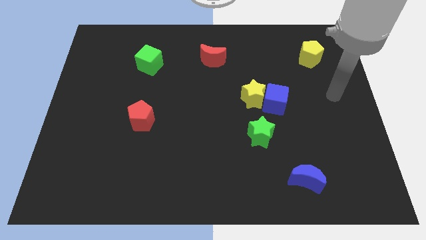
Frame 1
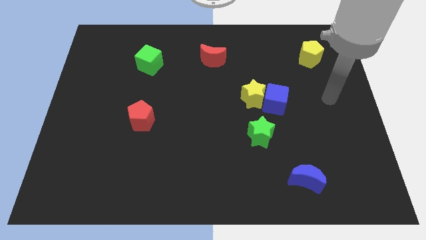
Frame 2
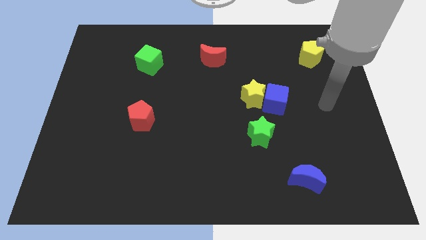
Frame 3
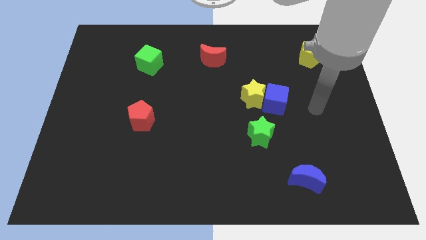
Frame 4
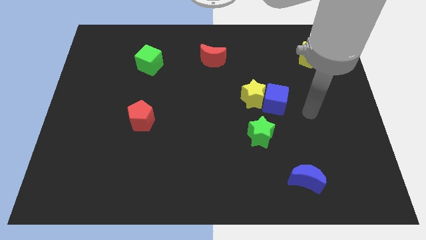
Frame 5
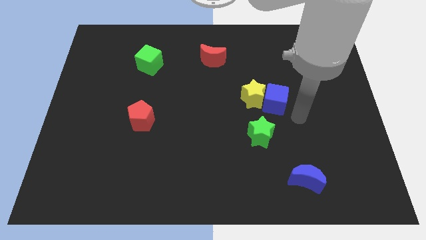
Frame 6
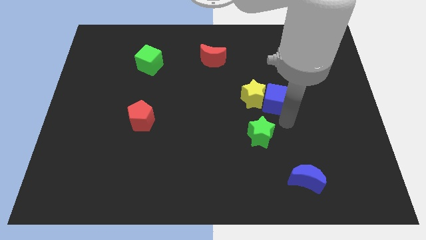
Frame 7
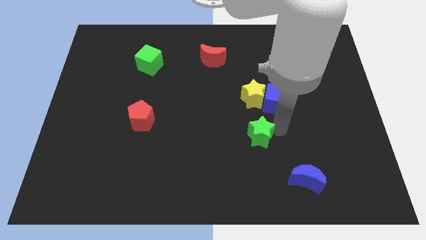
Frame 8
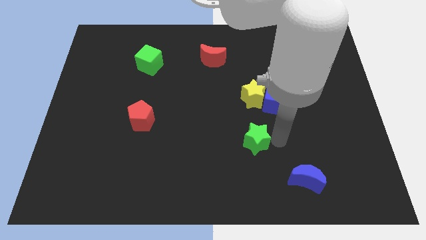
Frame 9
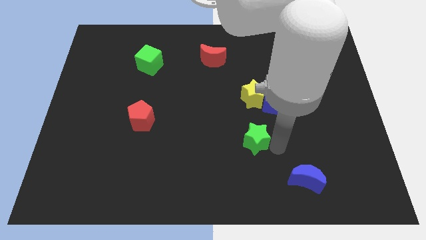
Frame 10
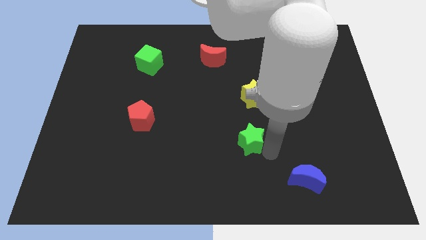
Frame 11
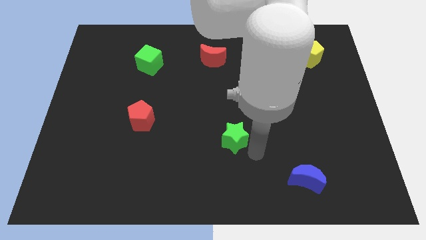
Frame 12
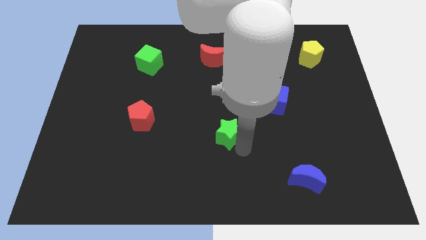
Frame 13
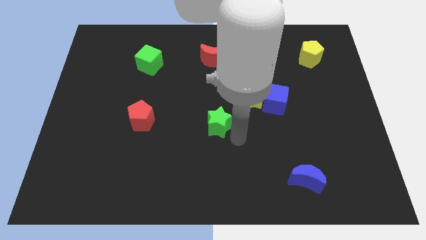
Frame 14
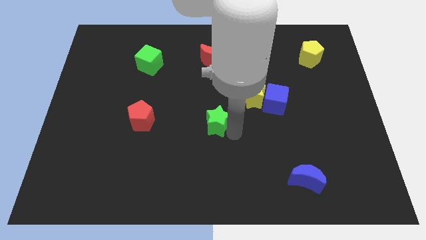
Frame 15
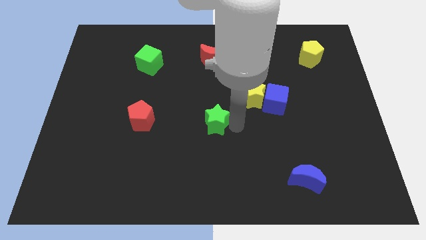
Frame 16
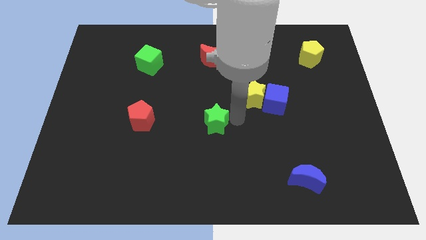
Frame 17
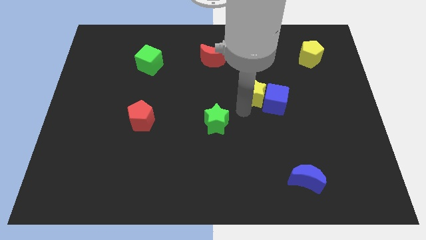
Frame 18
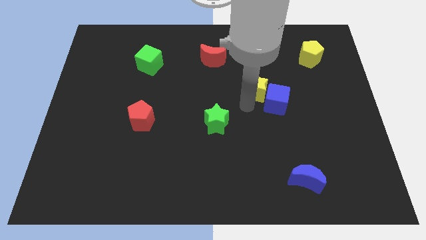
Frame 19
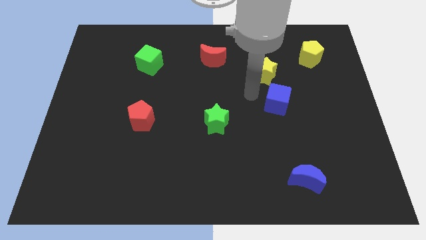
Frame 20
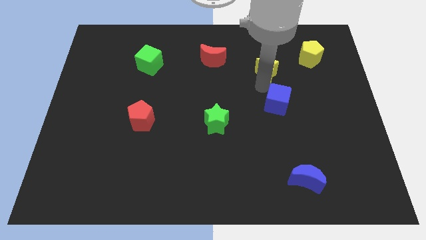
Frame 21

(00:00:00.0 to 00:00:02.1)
move the blue cube away from the yellow star

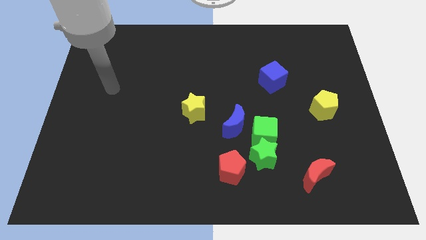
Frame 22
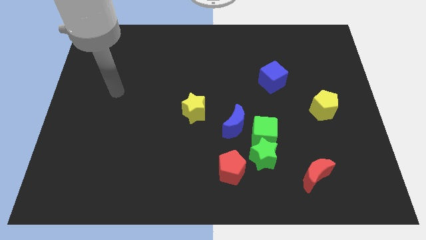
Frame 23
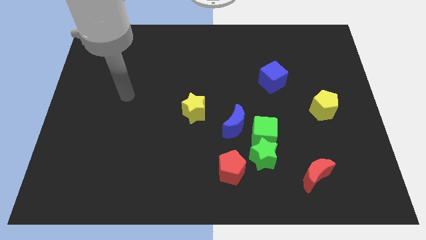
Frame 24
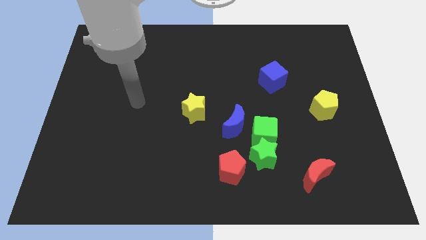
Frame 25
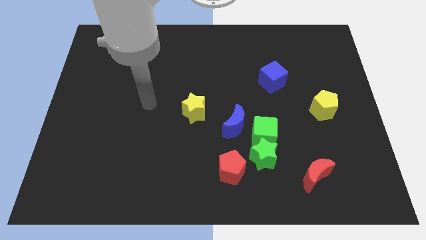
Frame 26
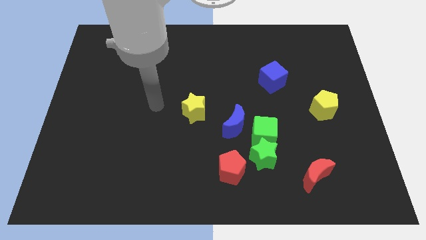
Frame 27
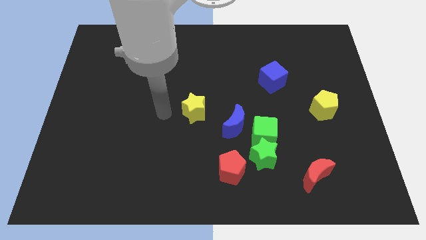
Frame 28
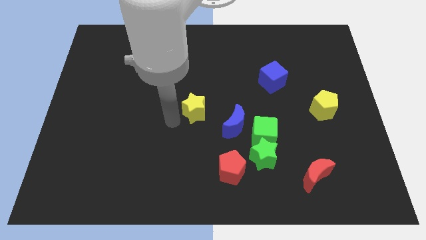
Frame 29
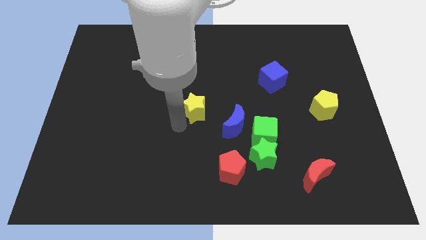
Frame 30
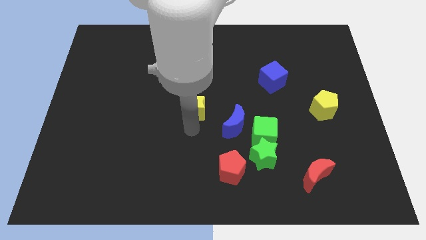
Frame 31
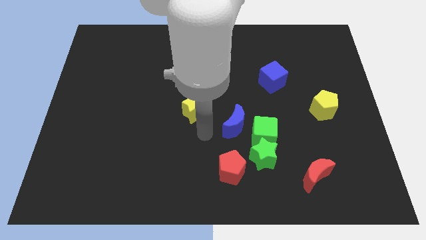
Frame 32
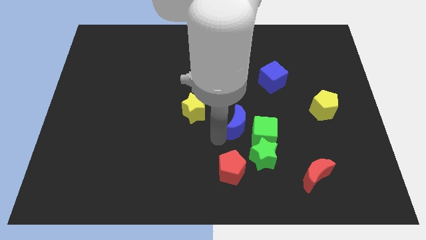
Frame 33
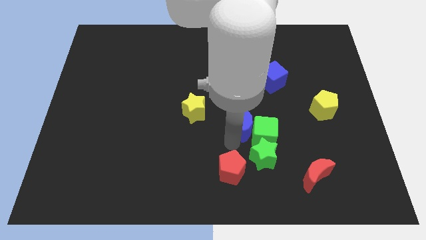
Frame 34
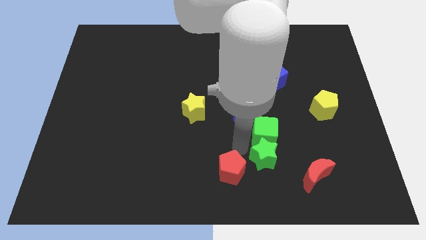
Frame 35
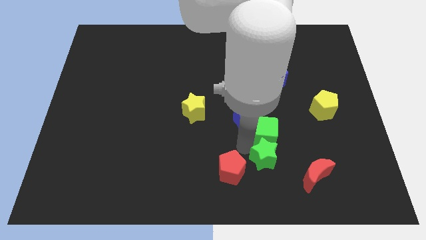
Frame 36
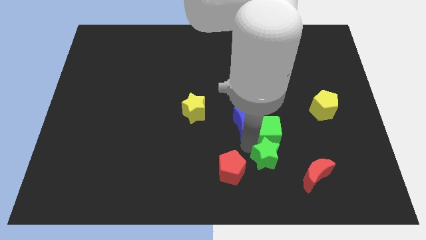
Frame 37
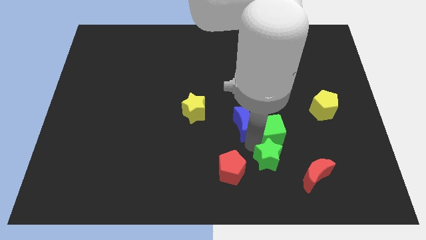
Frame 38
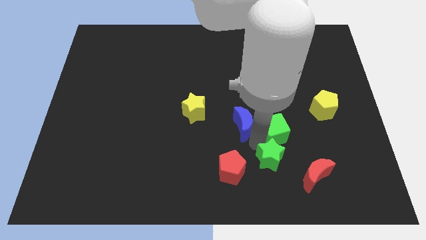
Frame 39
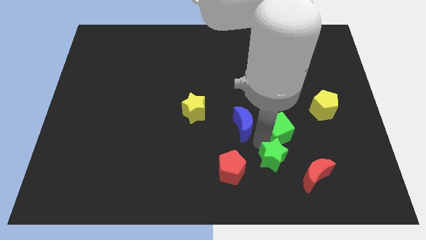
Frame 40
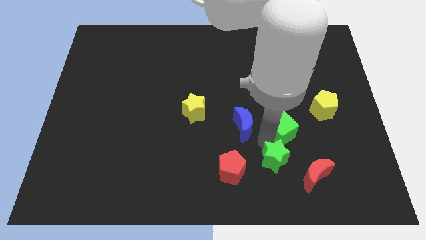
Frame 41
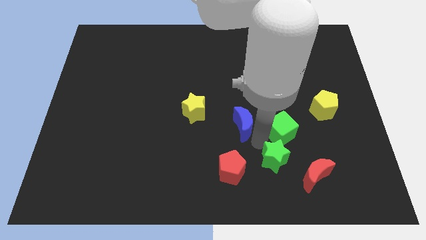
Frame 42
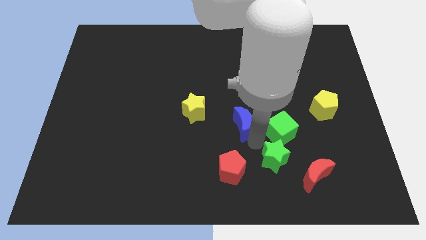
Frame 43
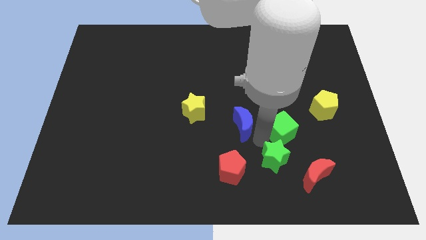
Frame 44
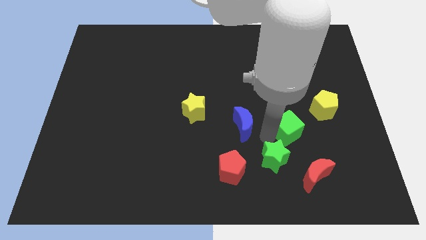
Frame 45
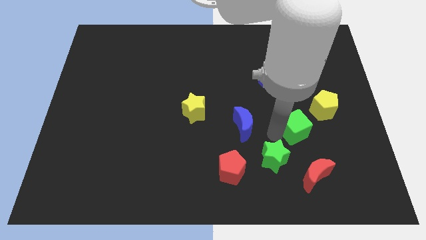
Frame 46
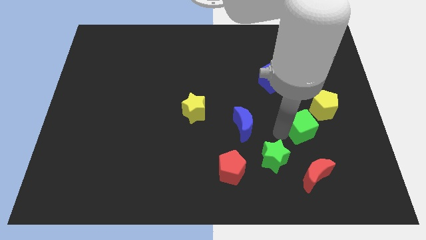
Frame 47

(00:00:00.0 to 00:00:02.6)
separate the green cube from the green star and blue moon

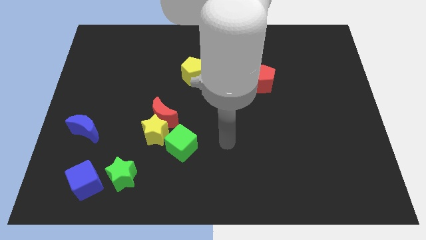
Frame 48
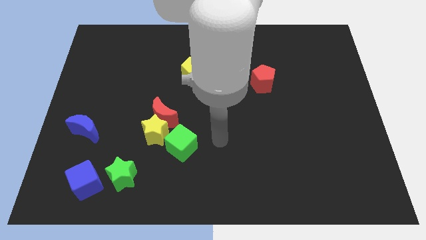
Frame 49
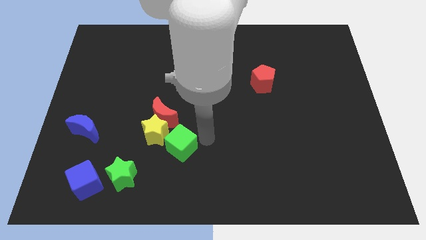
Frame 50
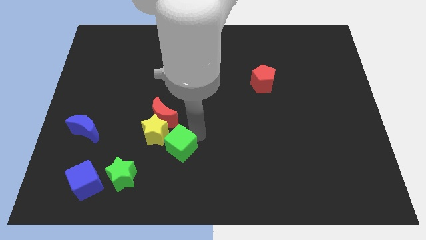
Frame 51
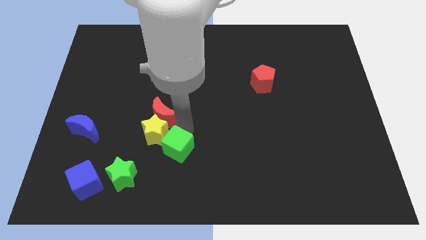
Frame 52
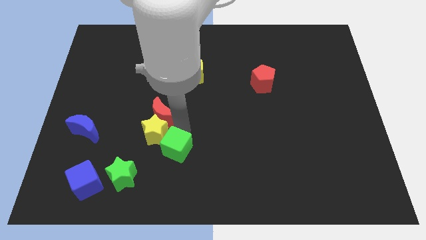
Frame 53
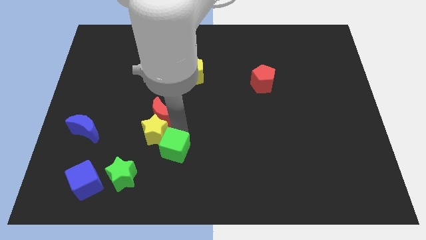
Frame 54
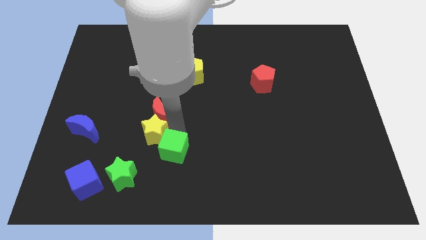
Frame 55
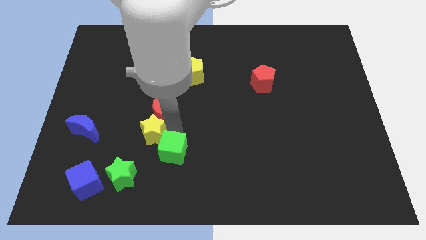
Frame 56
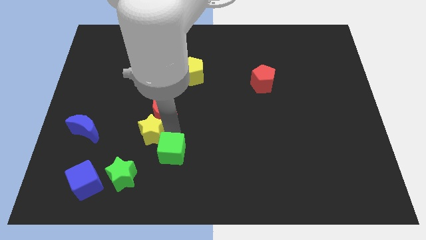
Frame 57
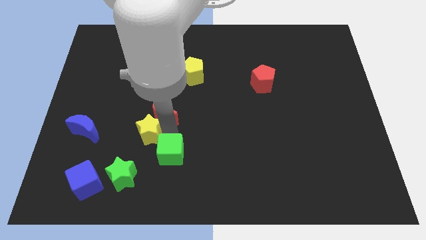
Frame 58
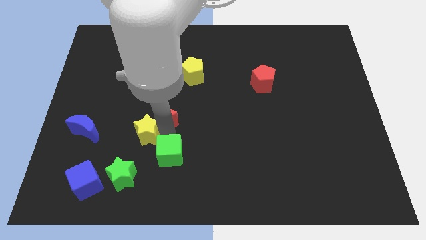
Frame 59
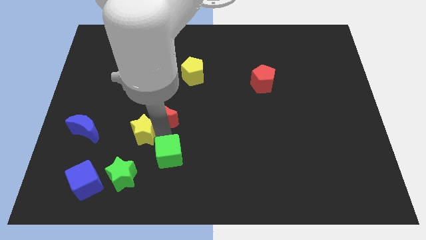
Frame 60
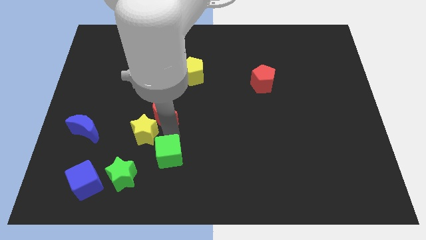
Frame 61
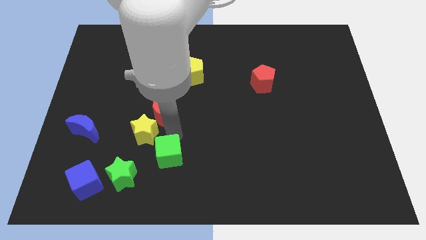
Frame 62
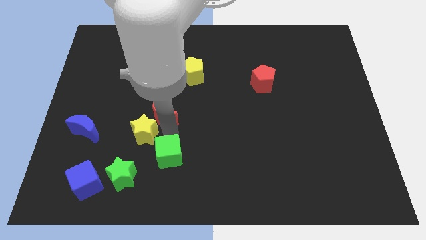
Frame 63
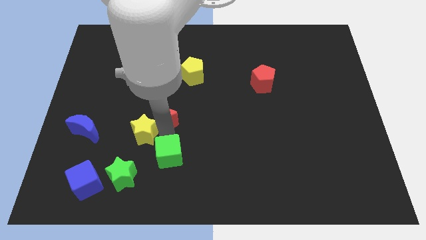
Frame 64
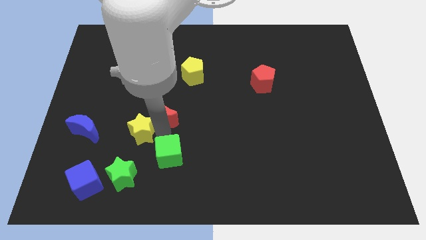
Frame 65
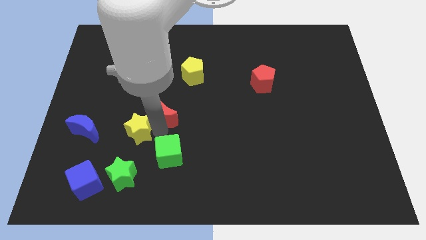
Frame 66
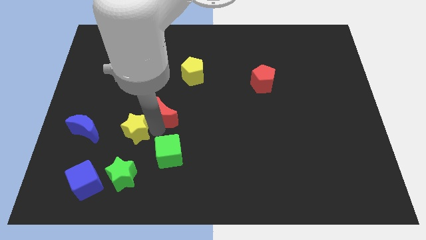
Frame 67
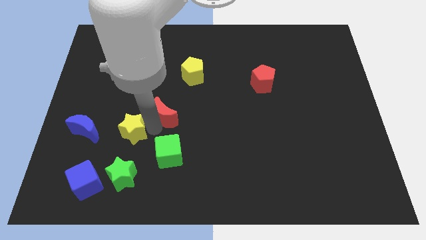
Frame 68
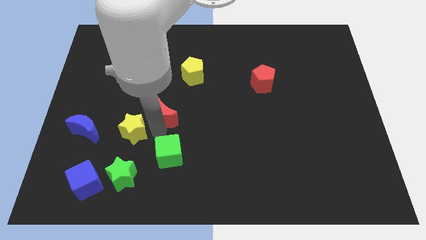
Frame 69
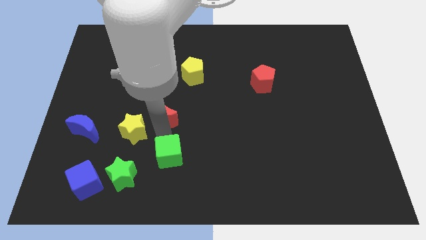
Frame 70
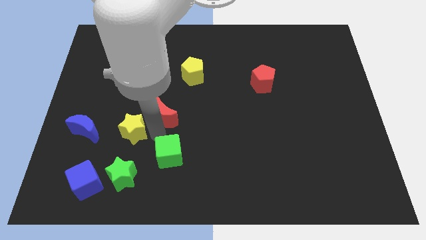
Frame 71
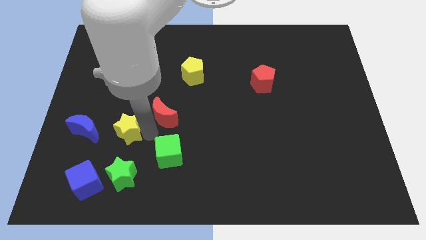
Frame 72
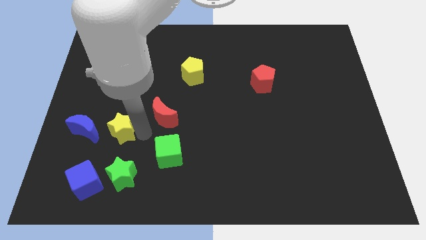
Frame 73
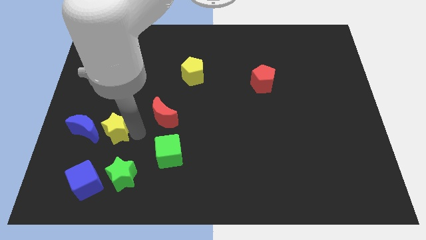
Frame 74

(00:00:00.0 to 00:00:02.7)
move the yellow star away from the red moon and green cube

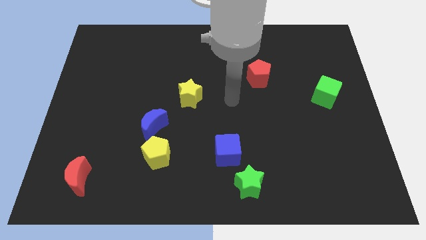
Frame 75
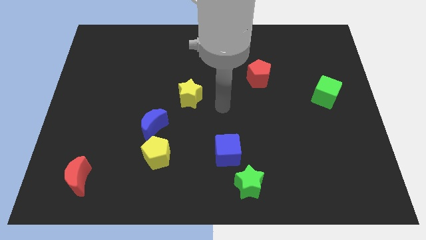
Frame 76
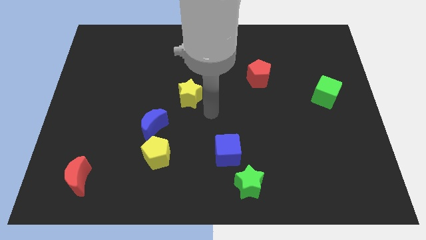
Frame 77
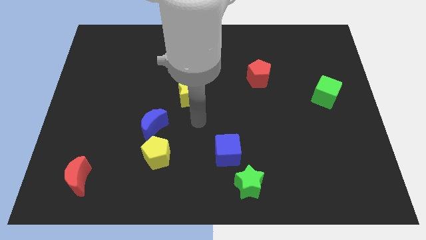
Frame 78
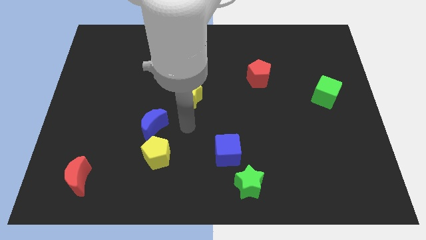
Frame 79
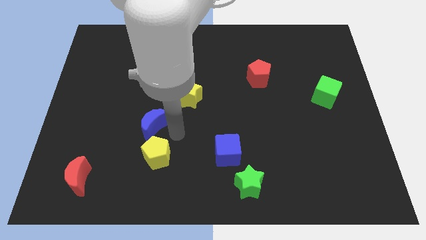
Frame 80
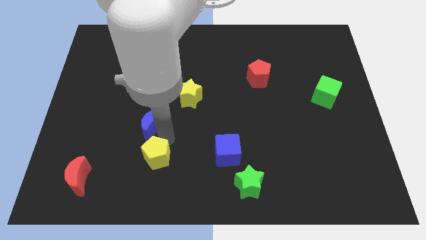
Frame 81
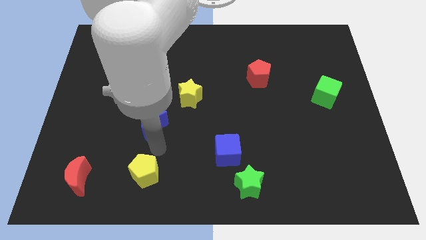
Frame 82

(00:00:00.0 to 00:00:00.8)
move the blue moon away from the yellow pentagon

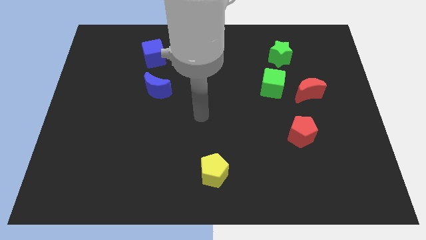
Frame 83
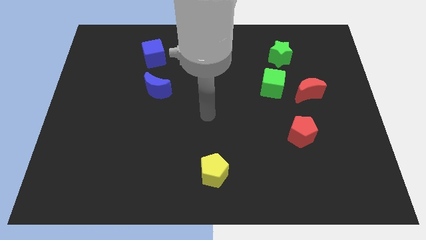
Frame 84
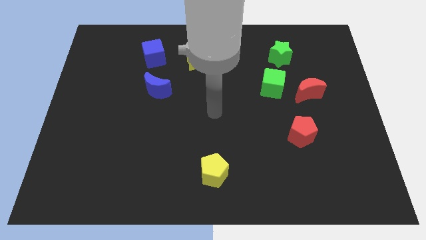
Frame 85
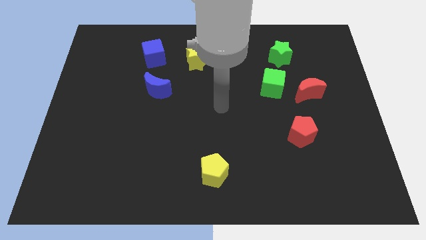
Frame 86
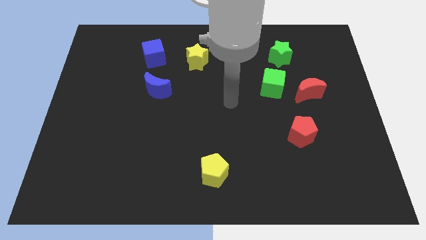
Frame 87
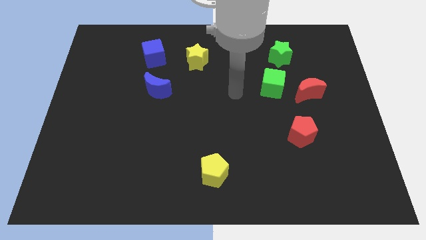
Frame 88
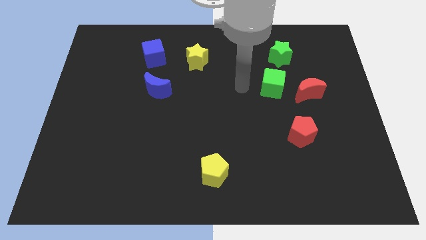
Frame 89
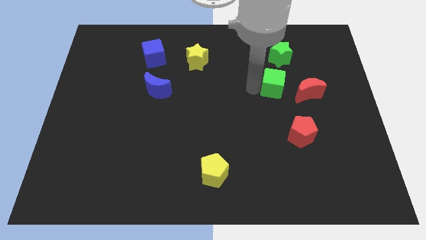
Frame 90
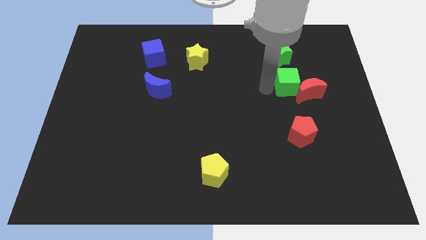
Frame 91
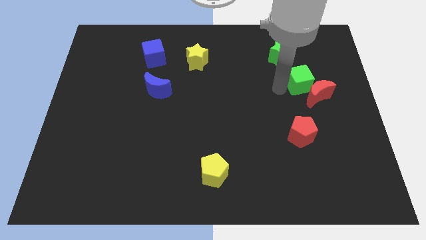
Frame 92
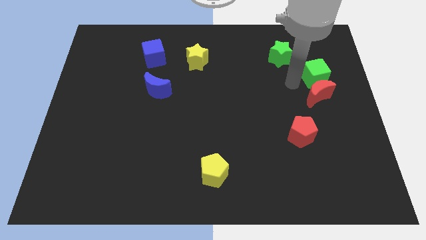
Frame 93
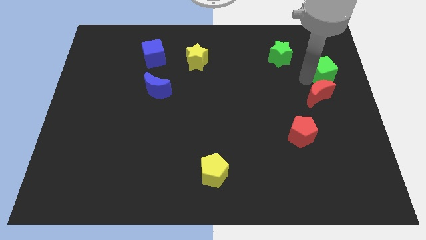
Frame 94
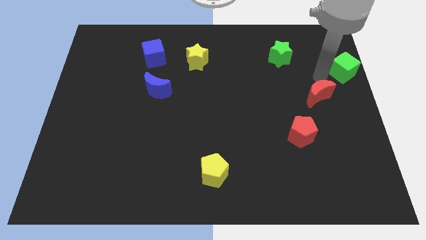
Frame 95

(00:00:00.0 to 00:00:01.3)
pull the red moon apart from the green cube
